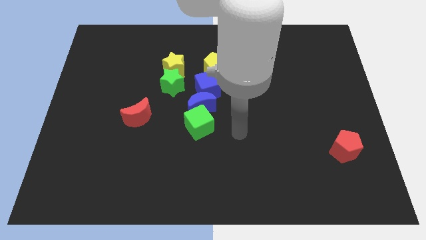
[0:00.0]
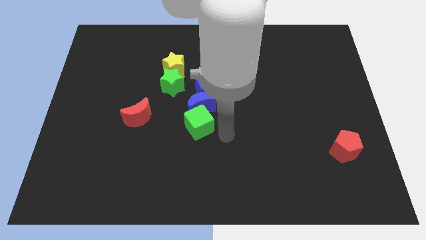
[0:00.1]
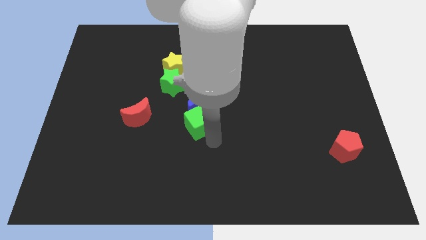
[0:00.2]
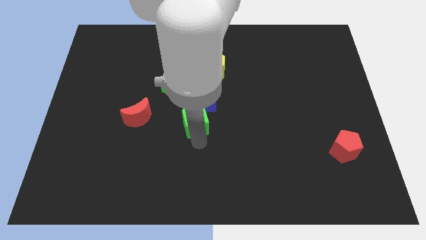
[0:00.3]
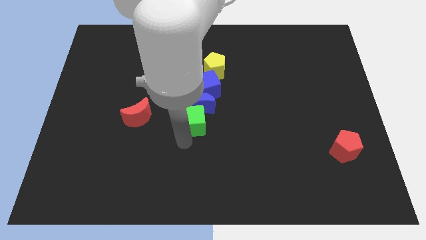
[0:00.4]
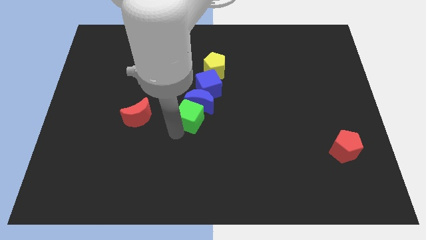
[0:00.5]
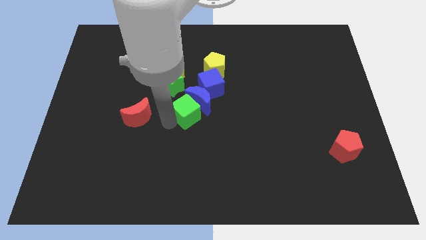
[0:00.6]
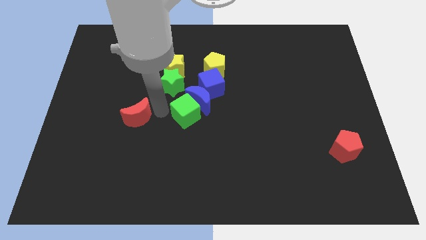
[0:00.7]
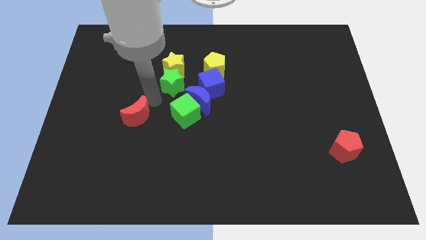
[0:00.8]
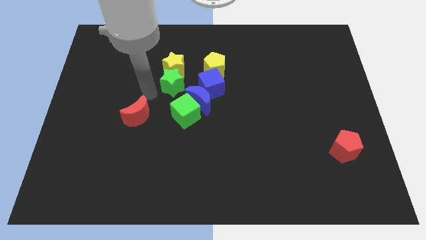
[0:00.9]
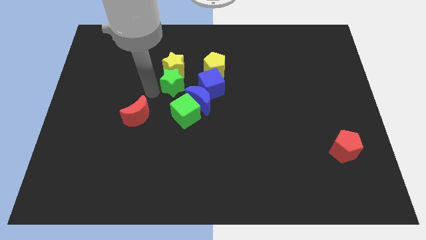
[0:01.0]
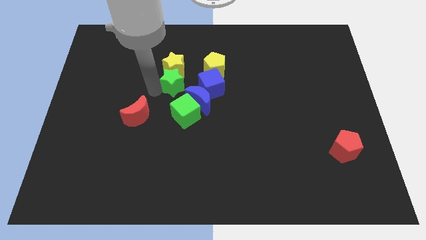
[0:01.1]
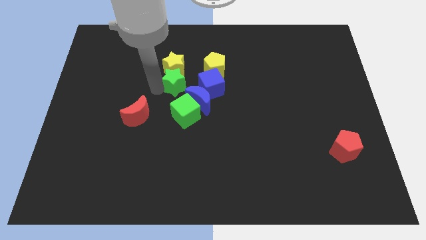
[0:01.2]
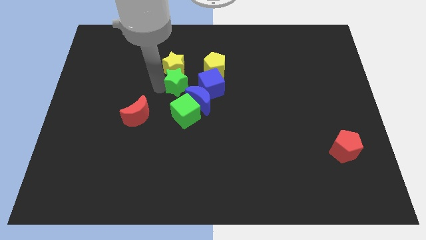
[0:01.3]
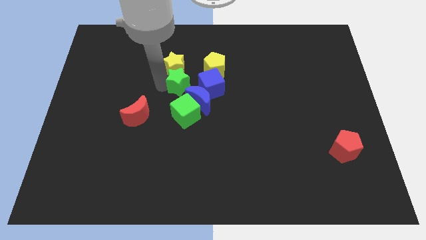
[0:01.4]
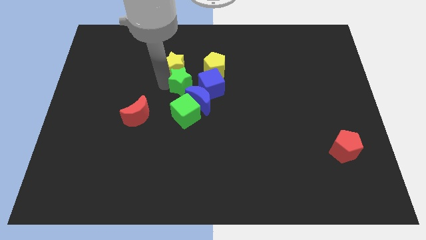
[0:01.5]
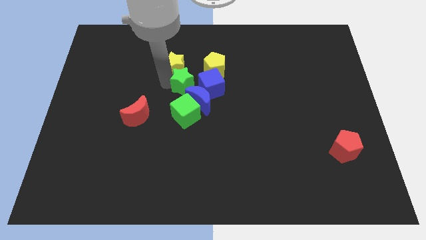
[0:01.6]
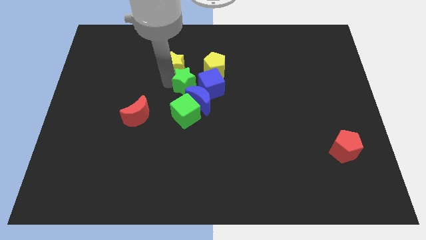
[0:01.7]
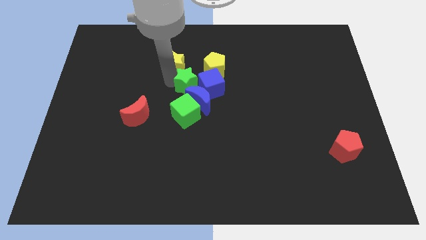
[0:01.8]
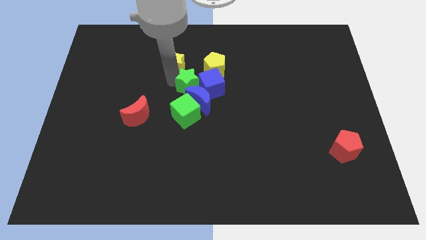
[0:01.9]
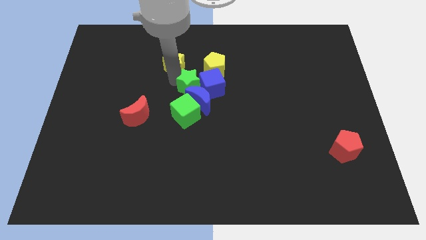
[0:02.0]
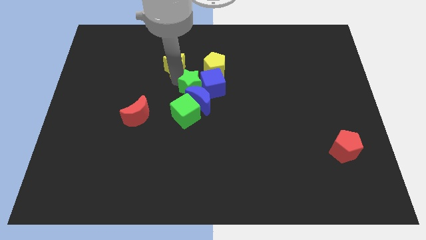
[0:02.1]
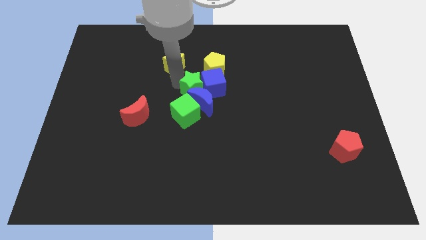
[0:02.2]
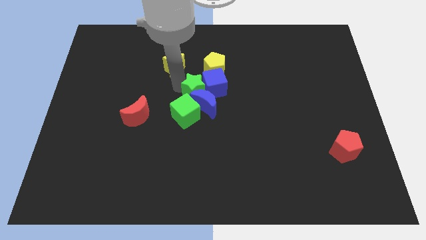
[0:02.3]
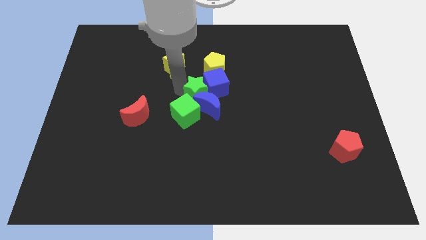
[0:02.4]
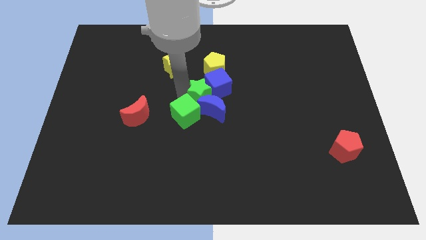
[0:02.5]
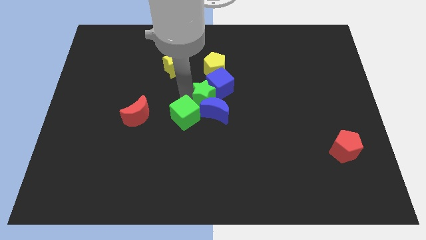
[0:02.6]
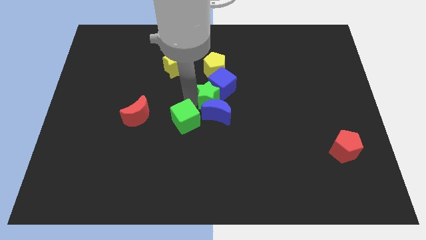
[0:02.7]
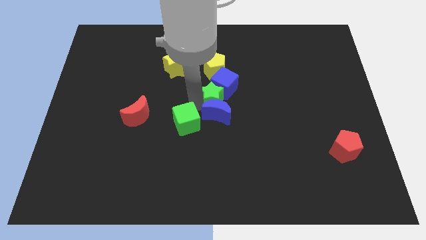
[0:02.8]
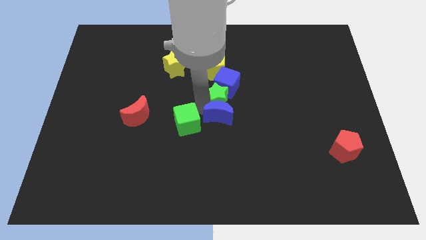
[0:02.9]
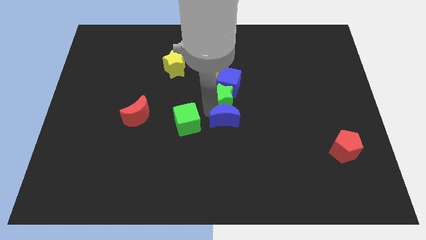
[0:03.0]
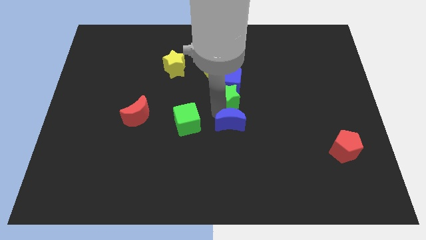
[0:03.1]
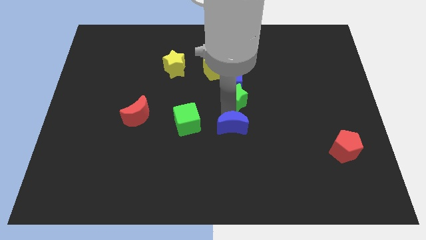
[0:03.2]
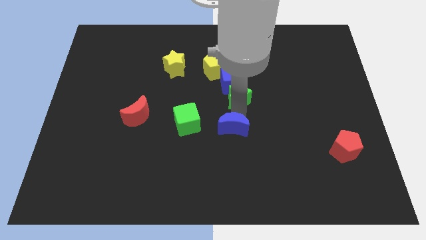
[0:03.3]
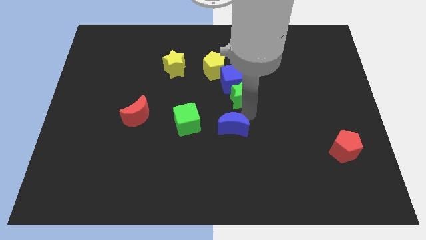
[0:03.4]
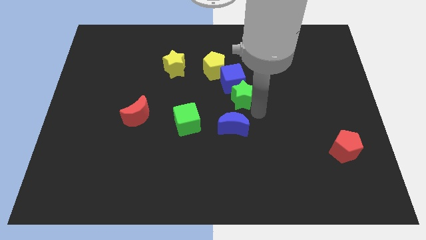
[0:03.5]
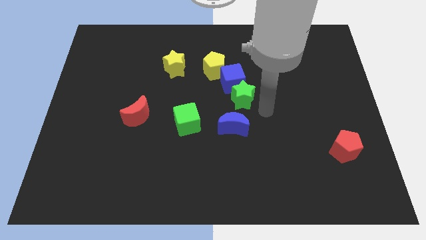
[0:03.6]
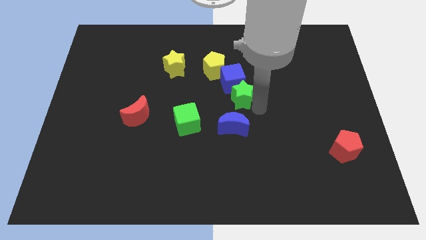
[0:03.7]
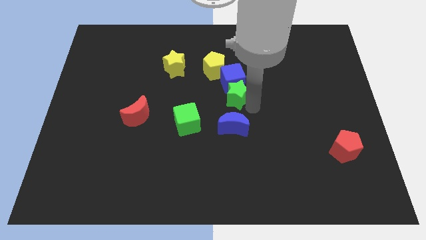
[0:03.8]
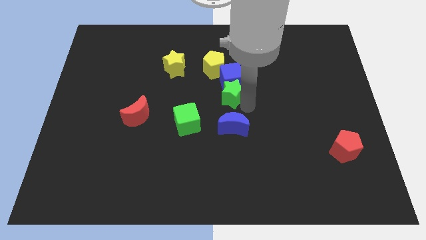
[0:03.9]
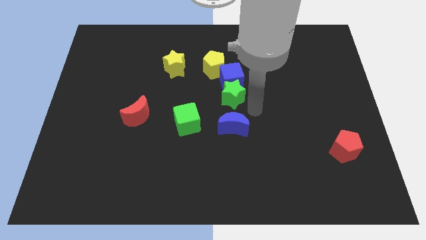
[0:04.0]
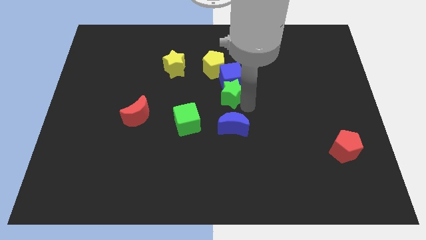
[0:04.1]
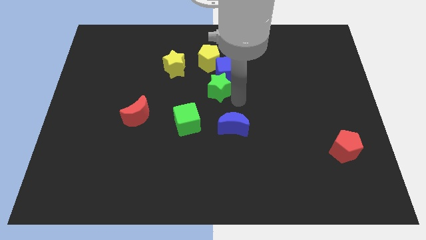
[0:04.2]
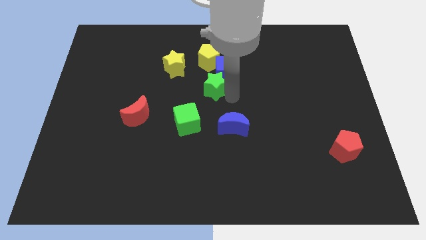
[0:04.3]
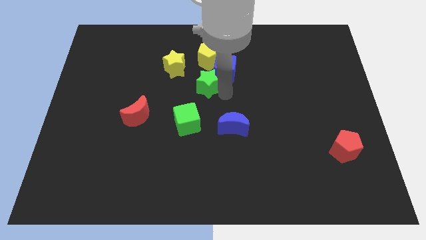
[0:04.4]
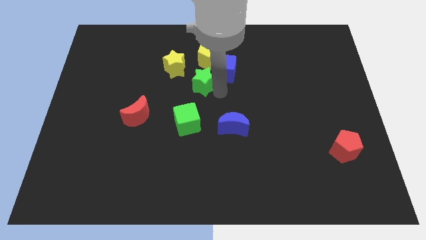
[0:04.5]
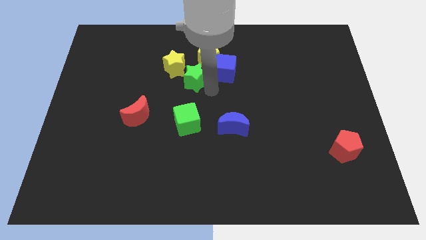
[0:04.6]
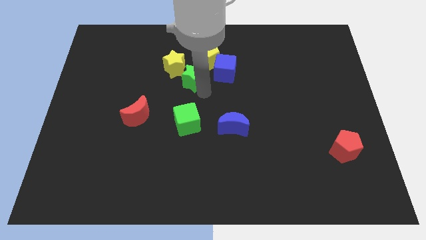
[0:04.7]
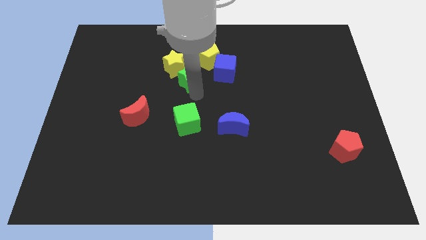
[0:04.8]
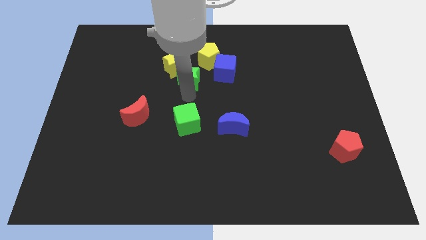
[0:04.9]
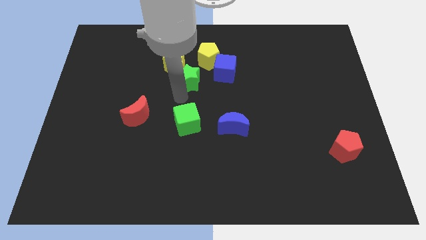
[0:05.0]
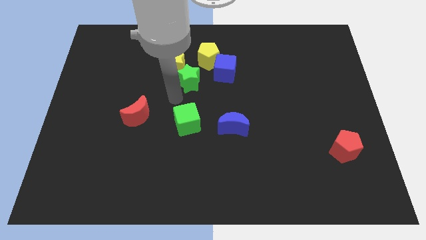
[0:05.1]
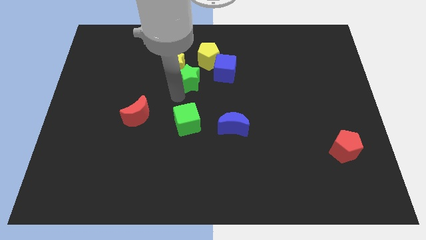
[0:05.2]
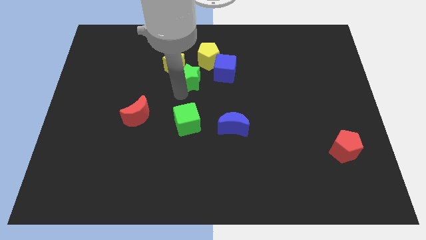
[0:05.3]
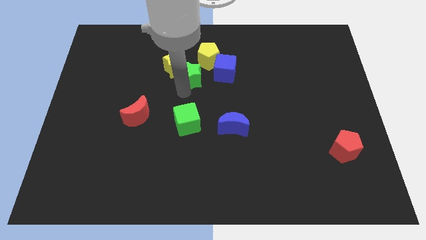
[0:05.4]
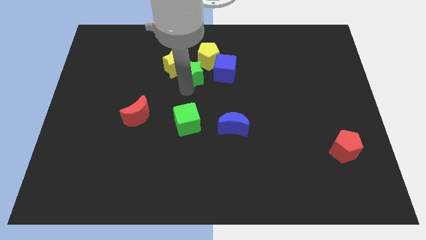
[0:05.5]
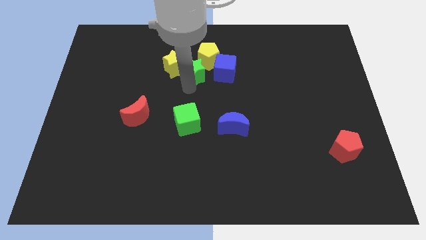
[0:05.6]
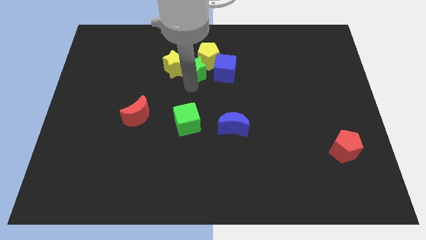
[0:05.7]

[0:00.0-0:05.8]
push the green star to the yellow pentagon
